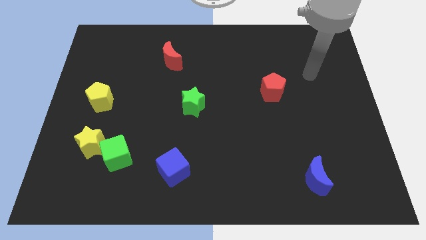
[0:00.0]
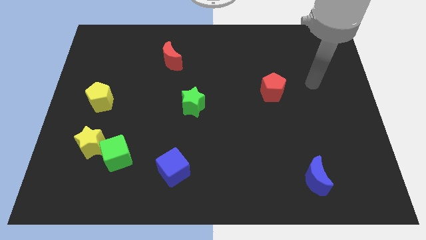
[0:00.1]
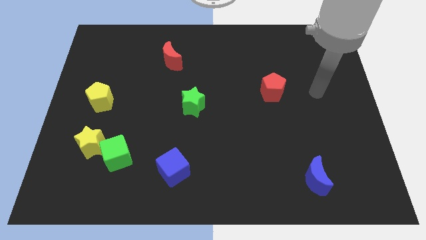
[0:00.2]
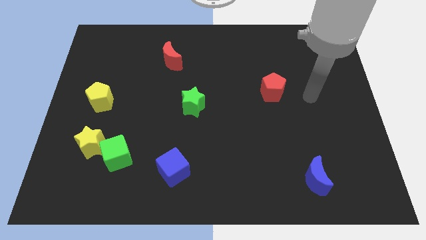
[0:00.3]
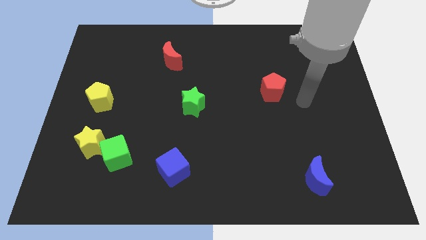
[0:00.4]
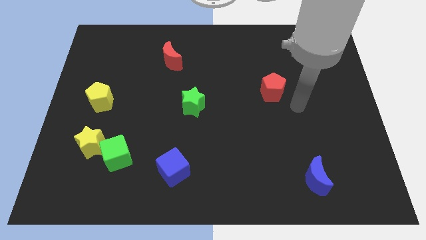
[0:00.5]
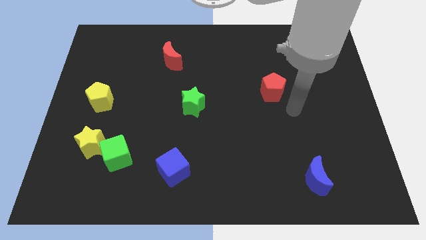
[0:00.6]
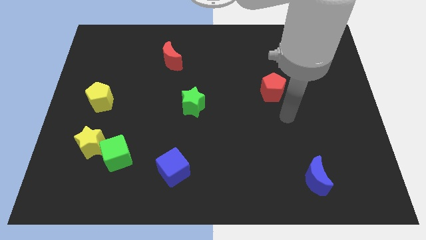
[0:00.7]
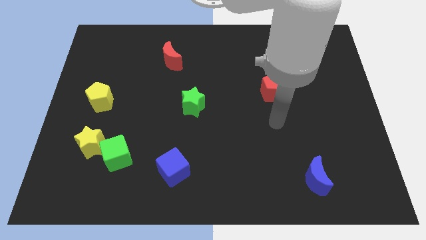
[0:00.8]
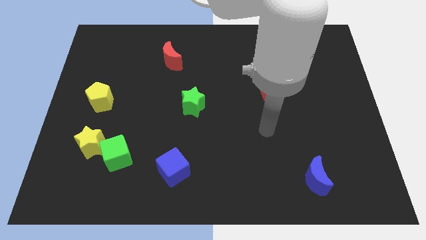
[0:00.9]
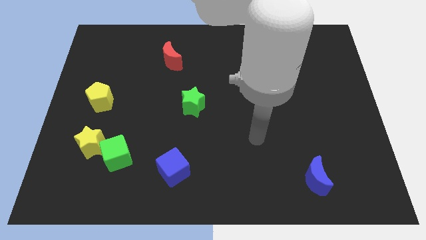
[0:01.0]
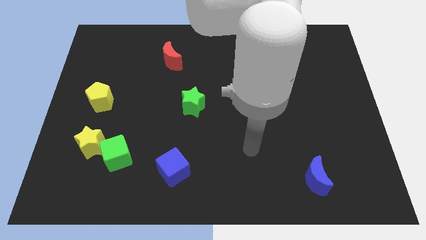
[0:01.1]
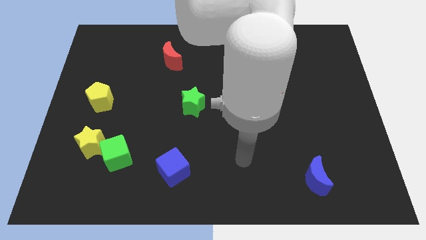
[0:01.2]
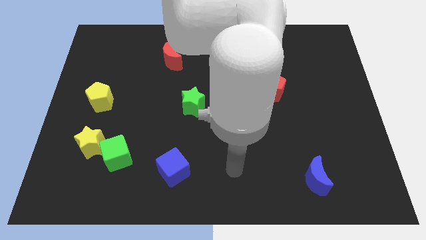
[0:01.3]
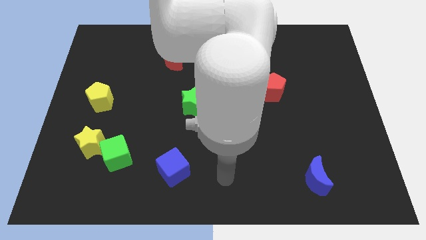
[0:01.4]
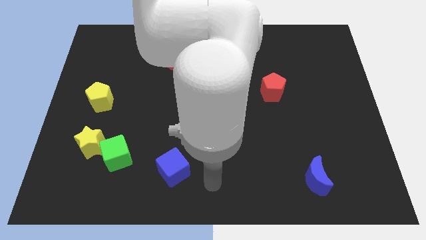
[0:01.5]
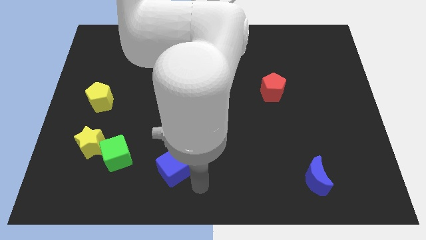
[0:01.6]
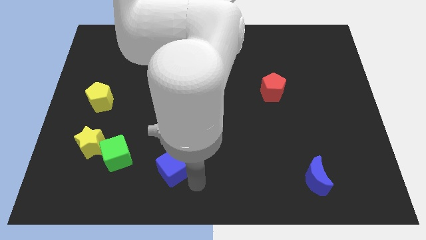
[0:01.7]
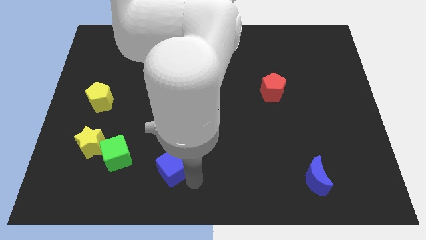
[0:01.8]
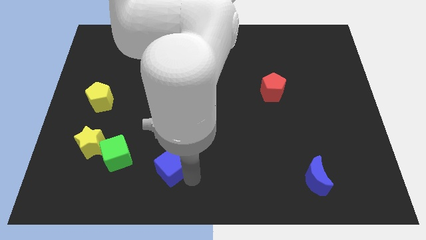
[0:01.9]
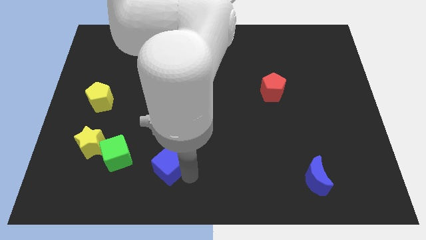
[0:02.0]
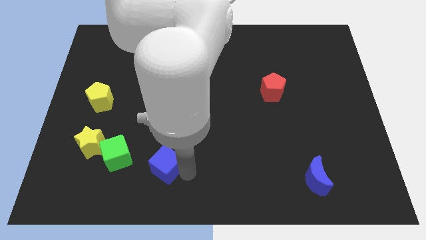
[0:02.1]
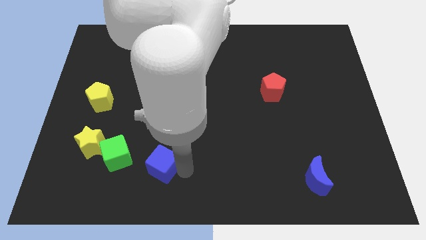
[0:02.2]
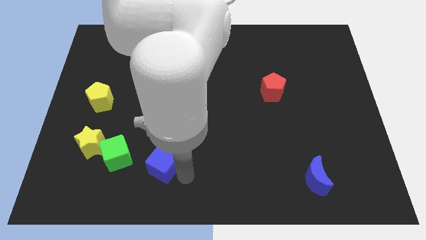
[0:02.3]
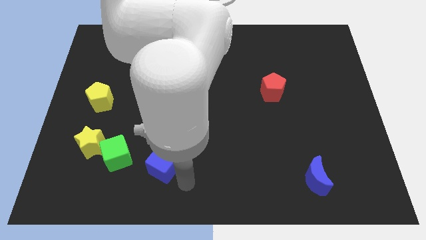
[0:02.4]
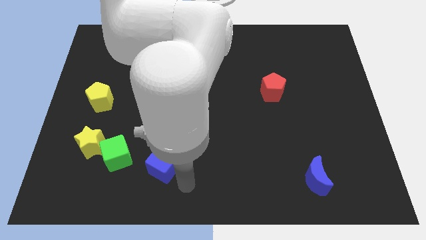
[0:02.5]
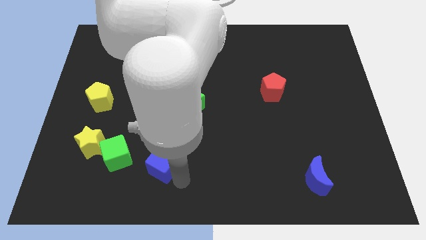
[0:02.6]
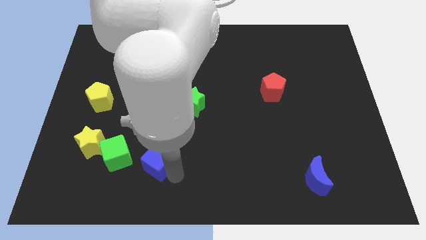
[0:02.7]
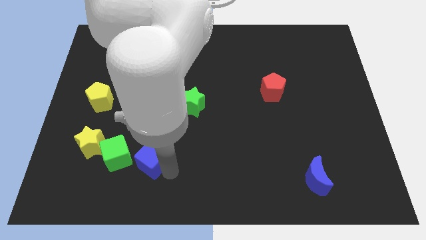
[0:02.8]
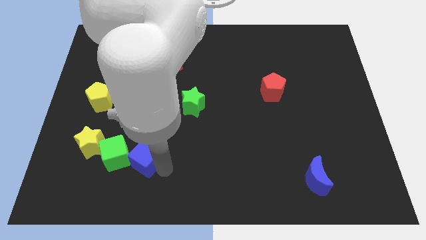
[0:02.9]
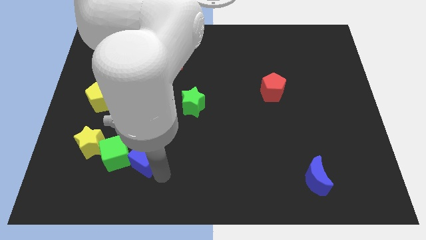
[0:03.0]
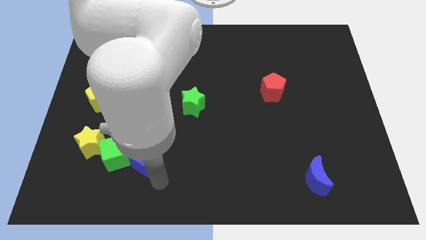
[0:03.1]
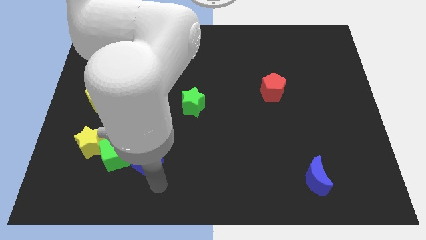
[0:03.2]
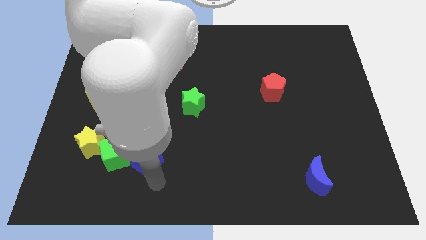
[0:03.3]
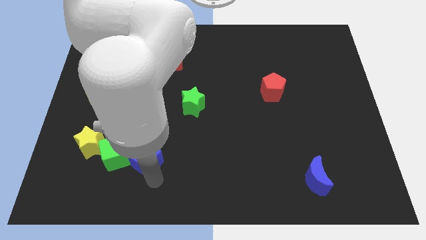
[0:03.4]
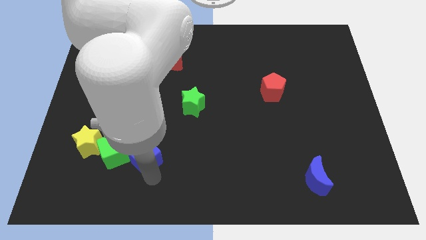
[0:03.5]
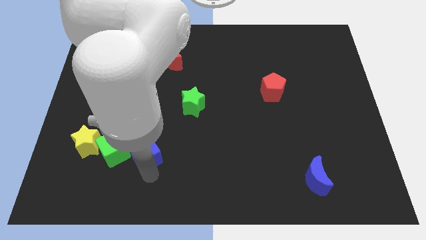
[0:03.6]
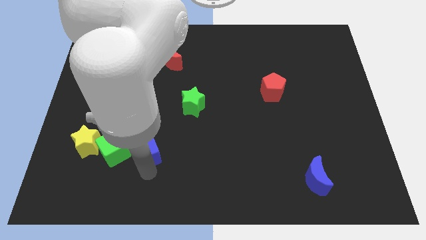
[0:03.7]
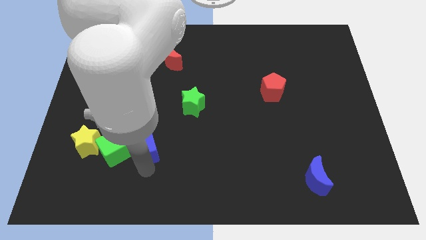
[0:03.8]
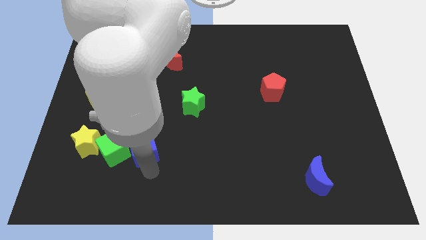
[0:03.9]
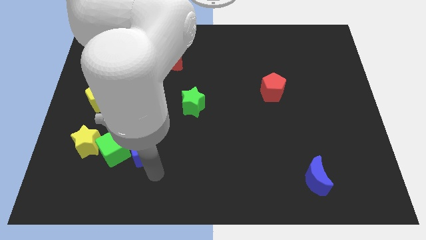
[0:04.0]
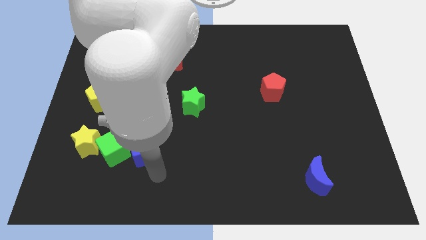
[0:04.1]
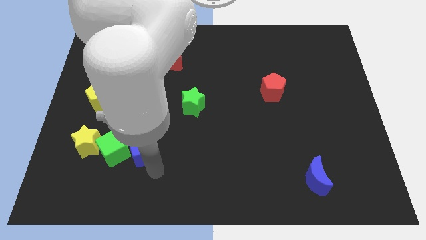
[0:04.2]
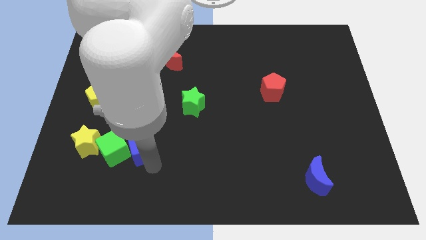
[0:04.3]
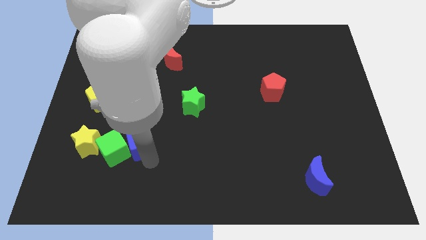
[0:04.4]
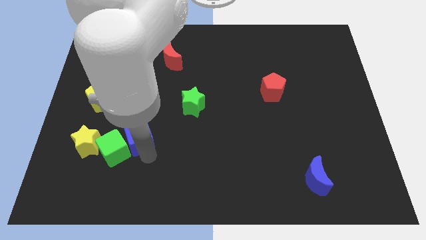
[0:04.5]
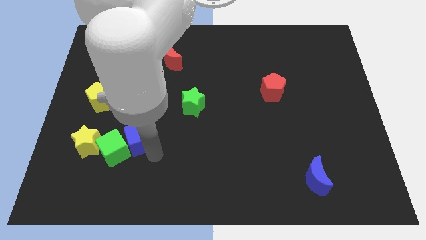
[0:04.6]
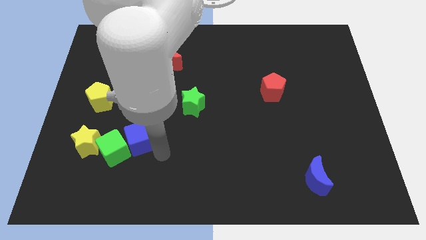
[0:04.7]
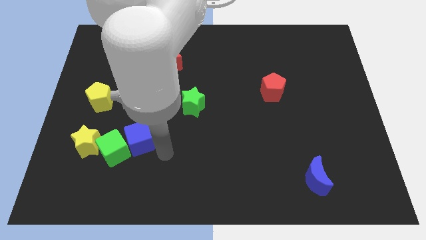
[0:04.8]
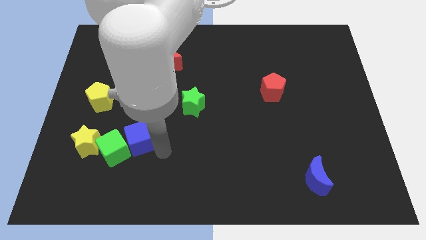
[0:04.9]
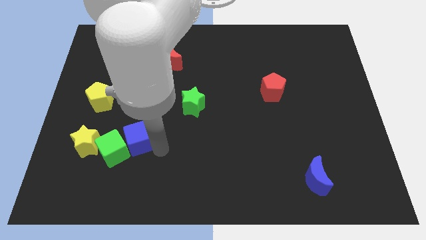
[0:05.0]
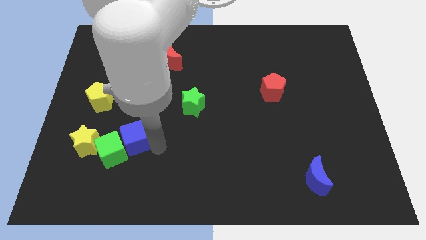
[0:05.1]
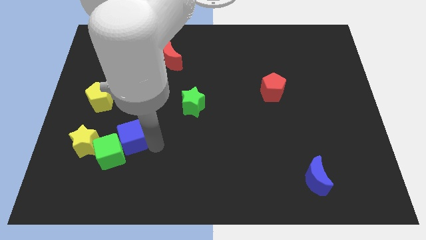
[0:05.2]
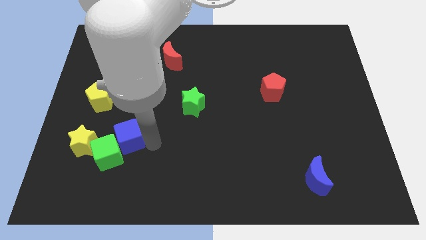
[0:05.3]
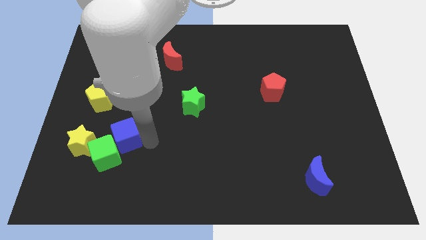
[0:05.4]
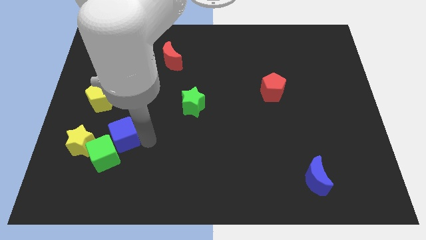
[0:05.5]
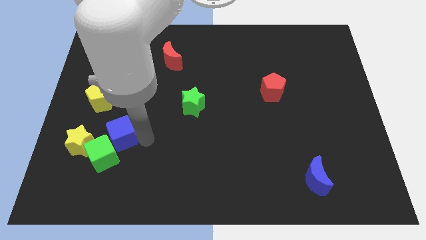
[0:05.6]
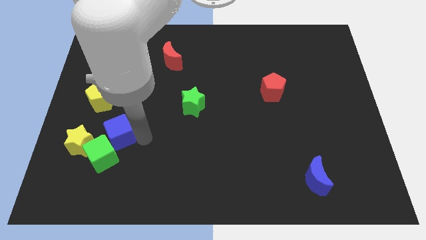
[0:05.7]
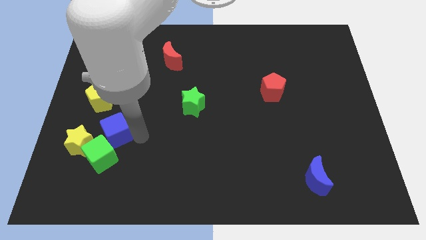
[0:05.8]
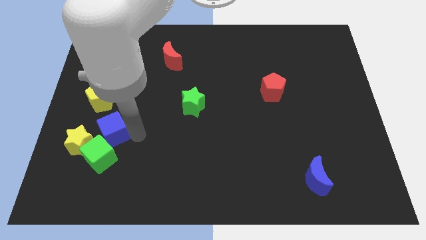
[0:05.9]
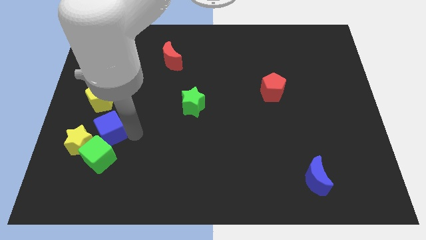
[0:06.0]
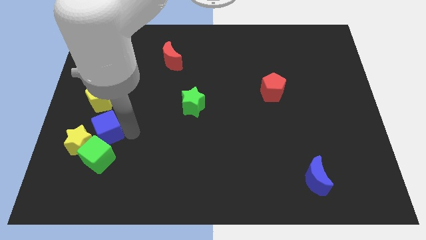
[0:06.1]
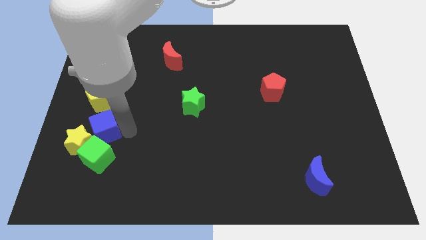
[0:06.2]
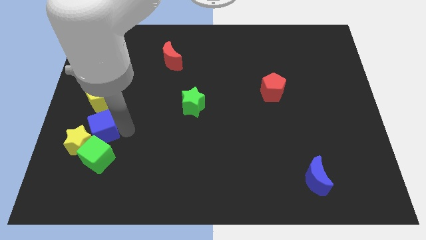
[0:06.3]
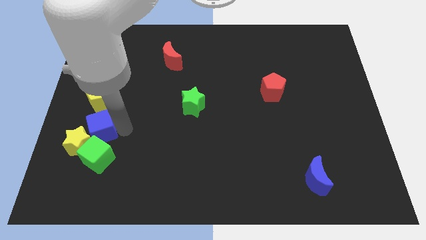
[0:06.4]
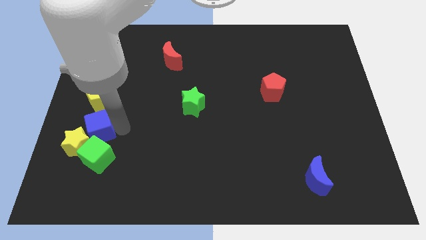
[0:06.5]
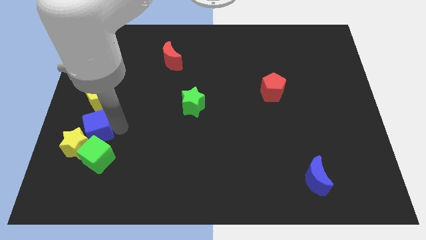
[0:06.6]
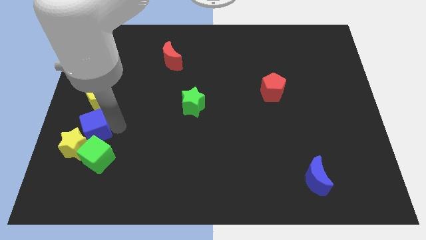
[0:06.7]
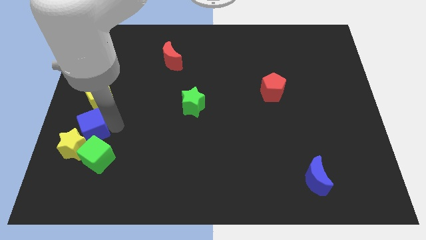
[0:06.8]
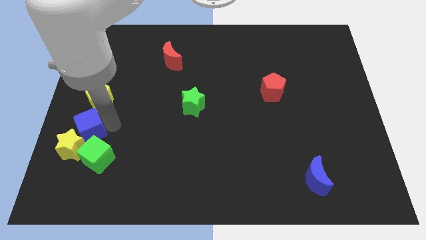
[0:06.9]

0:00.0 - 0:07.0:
push the blue cube to the center left
